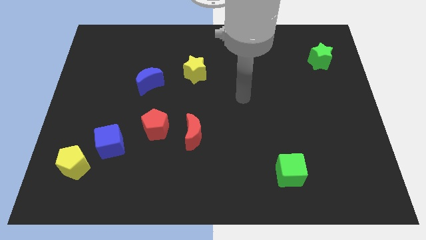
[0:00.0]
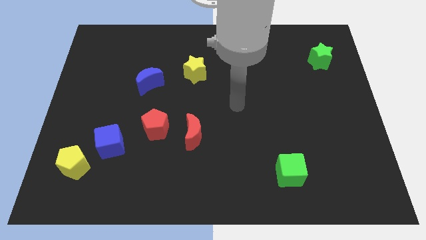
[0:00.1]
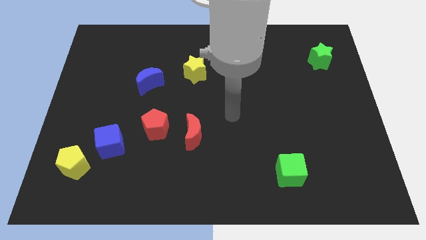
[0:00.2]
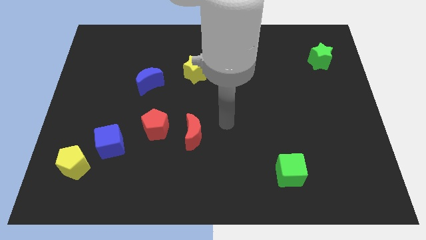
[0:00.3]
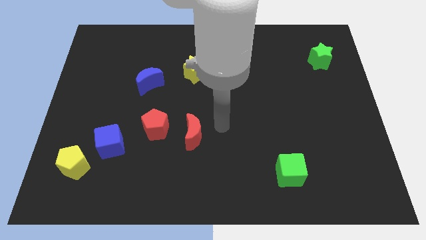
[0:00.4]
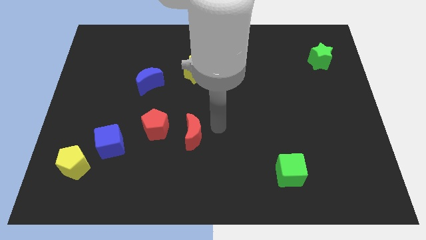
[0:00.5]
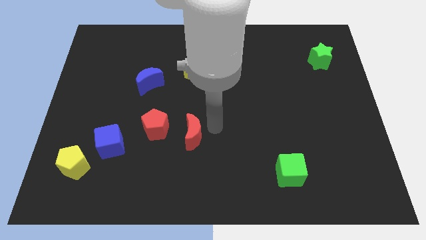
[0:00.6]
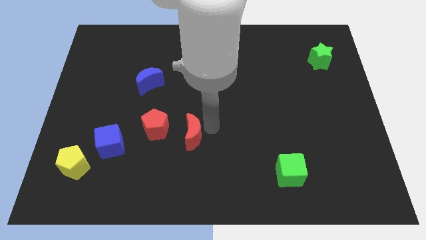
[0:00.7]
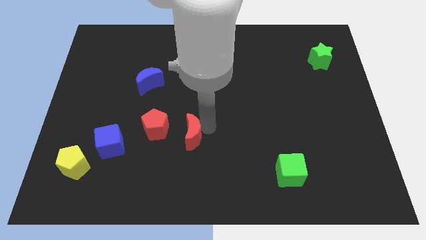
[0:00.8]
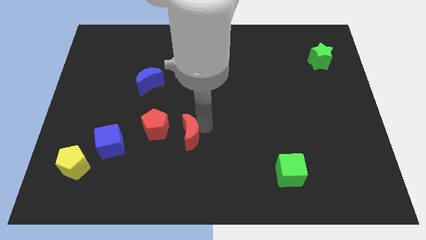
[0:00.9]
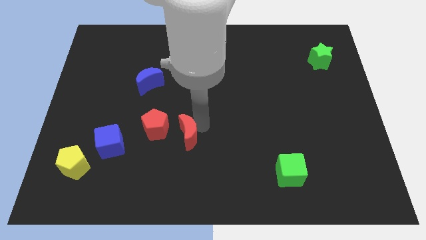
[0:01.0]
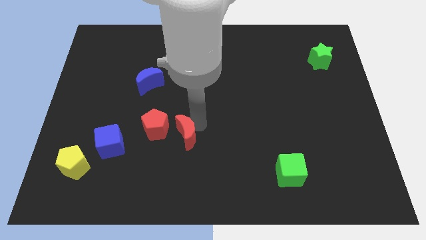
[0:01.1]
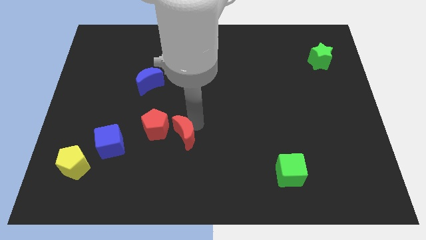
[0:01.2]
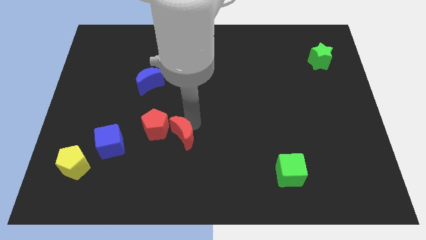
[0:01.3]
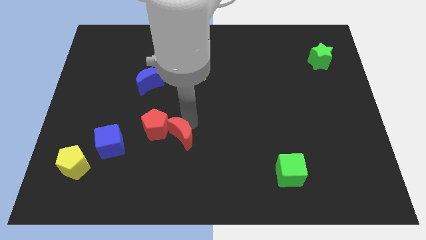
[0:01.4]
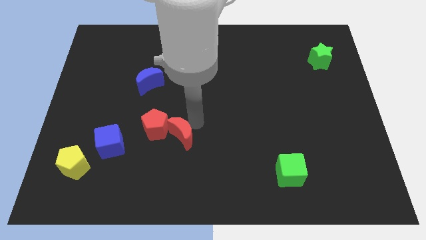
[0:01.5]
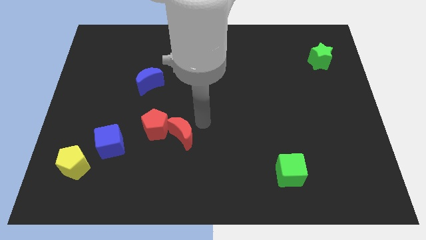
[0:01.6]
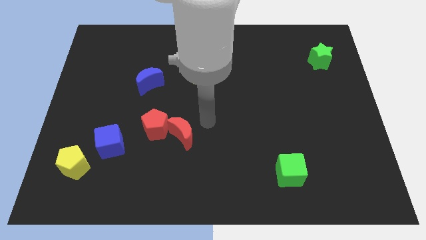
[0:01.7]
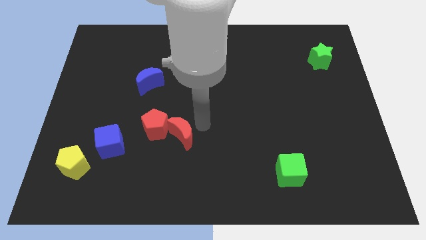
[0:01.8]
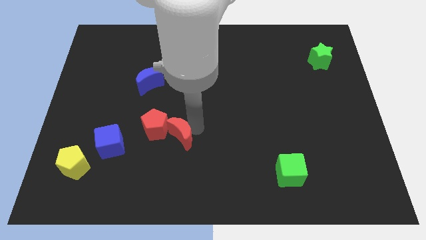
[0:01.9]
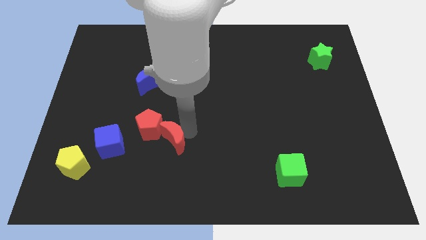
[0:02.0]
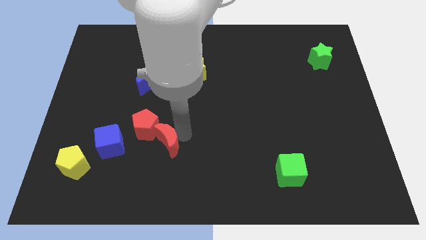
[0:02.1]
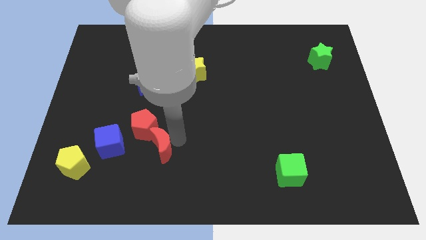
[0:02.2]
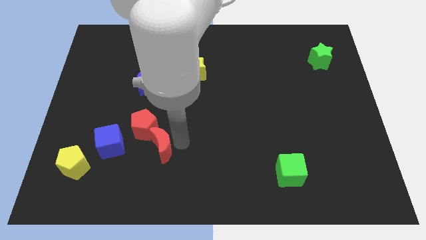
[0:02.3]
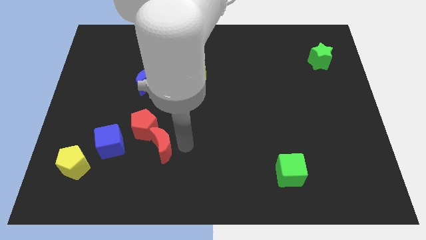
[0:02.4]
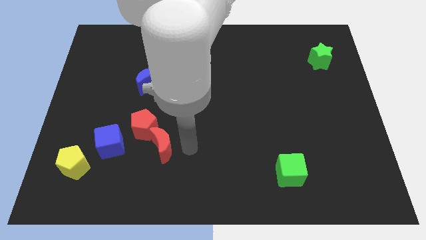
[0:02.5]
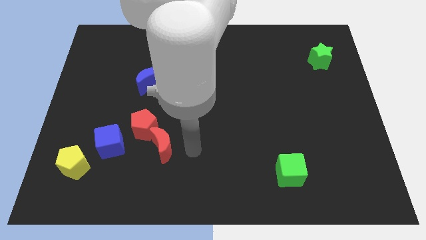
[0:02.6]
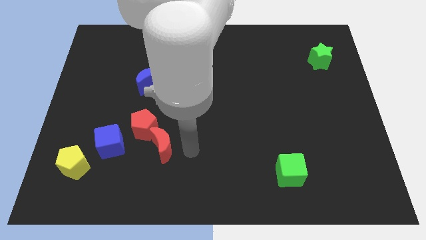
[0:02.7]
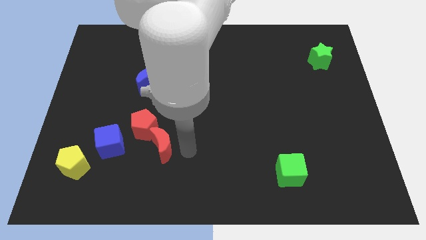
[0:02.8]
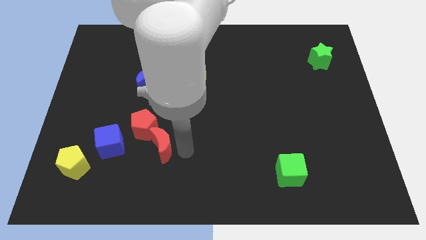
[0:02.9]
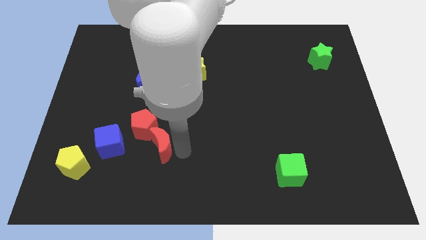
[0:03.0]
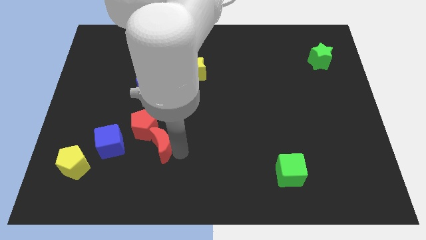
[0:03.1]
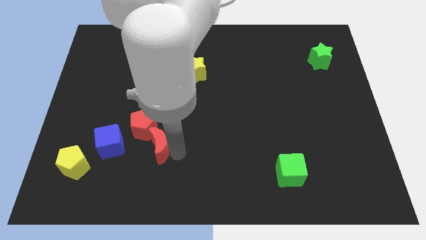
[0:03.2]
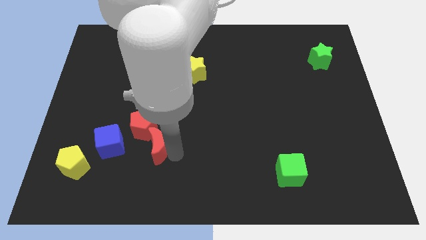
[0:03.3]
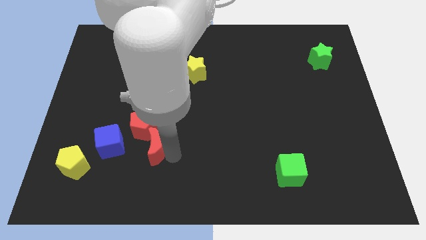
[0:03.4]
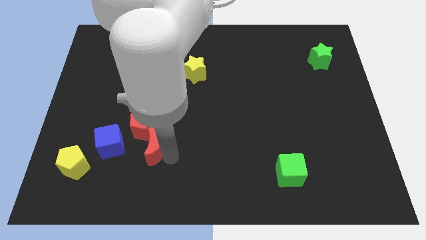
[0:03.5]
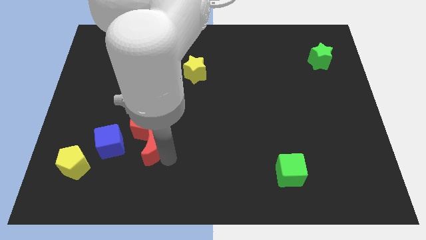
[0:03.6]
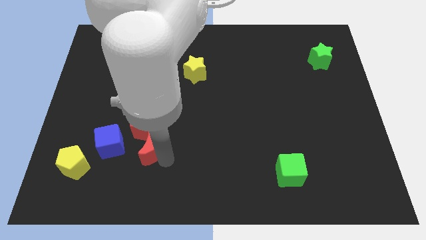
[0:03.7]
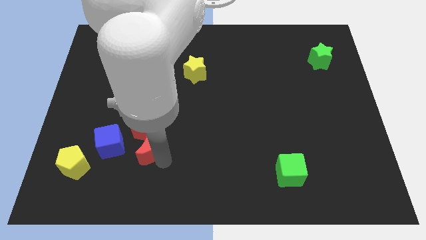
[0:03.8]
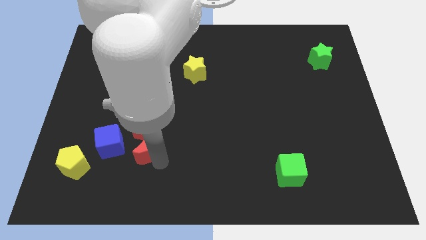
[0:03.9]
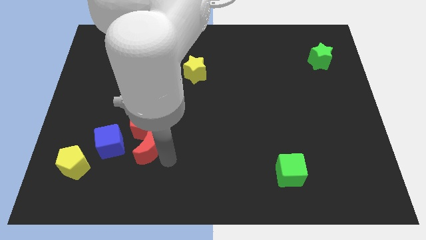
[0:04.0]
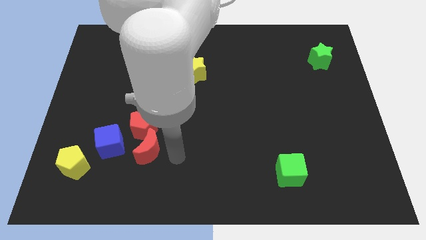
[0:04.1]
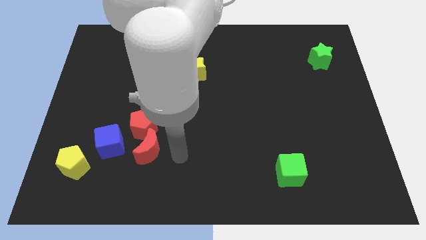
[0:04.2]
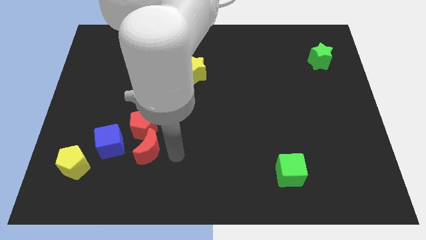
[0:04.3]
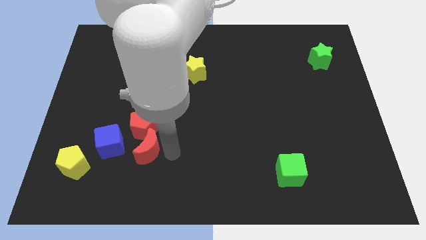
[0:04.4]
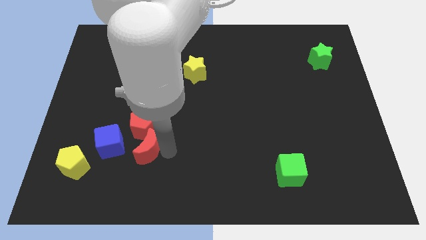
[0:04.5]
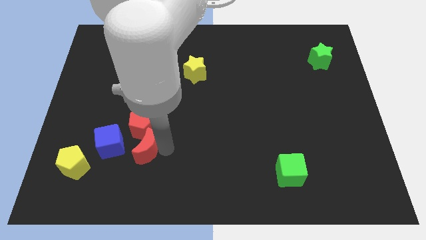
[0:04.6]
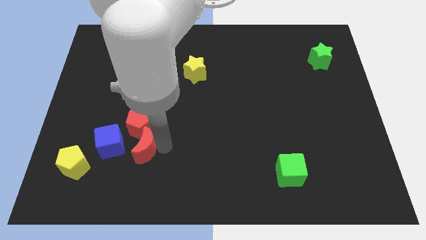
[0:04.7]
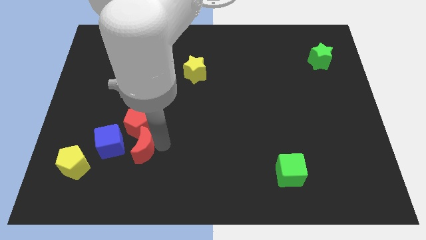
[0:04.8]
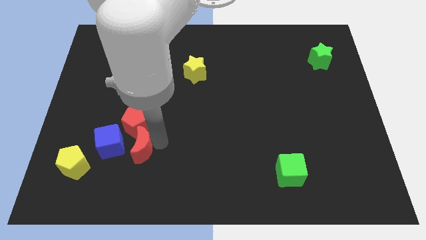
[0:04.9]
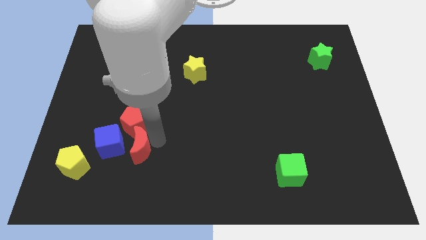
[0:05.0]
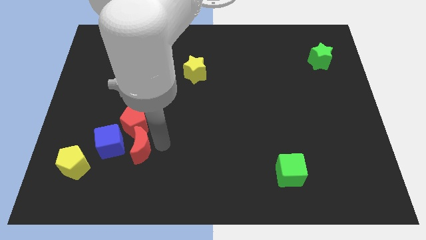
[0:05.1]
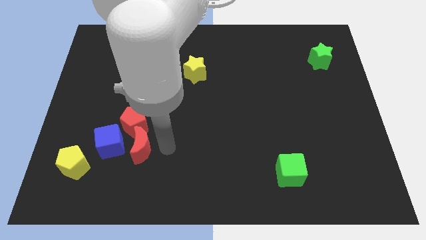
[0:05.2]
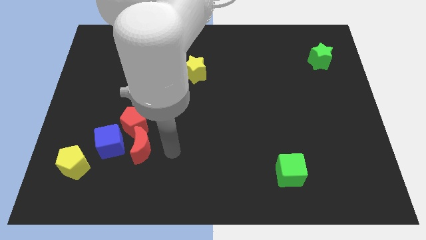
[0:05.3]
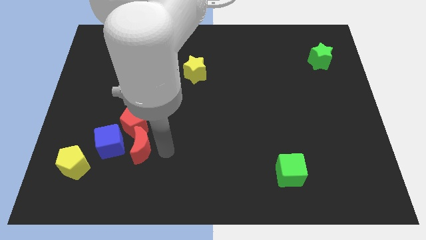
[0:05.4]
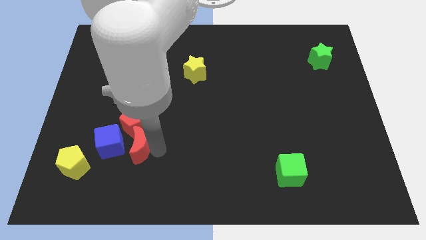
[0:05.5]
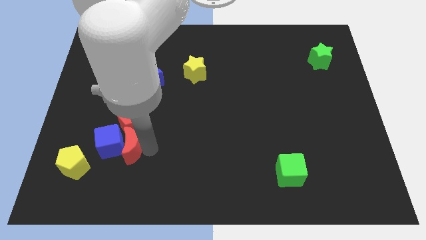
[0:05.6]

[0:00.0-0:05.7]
put the red moon to the blue cube
